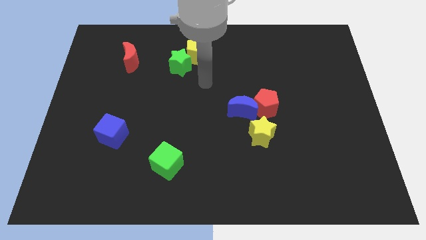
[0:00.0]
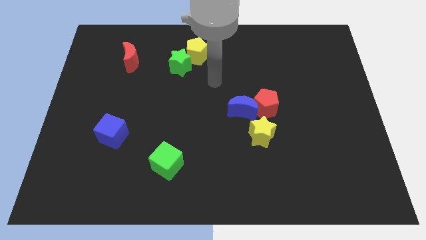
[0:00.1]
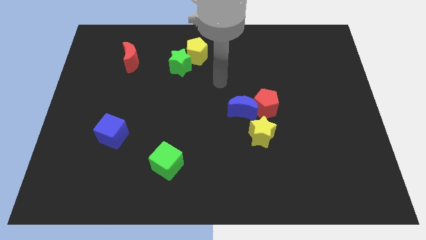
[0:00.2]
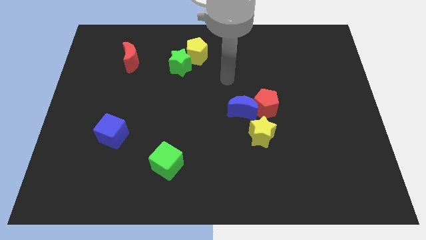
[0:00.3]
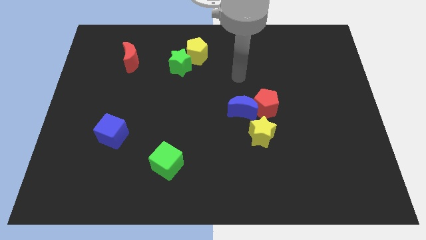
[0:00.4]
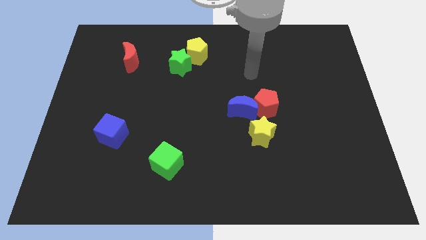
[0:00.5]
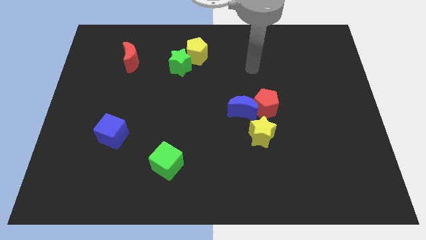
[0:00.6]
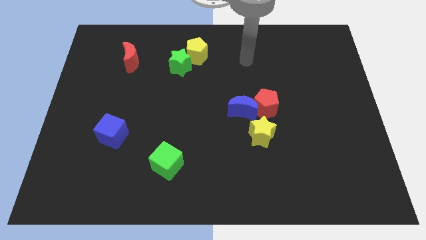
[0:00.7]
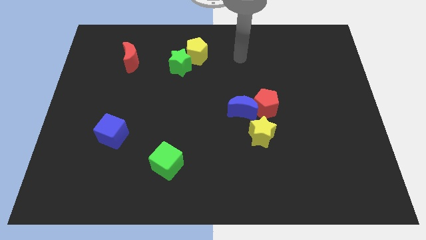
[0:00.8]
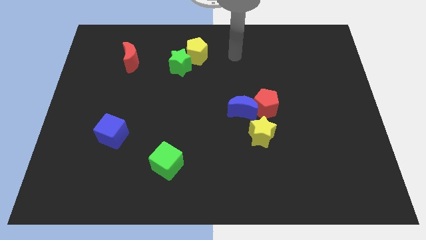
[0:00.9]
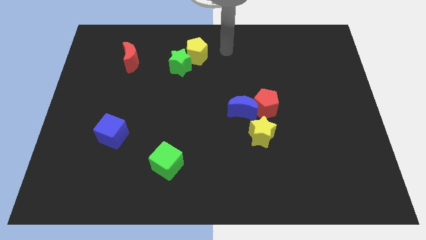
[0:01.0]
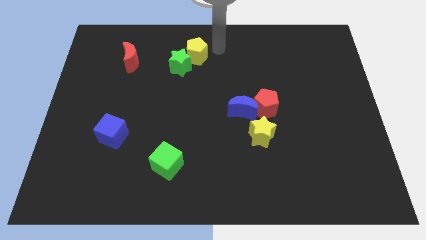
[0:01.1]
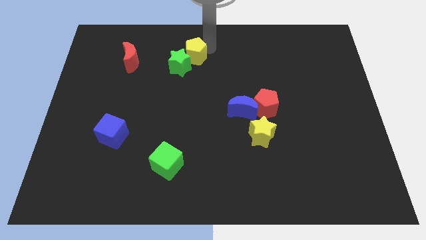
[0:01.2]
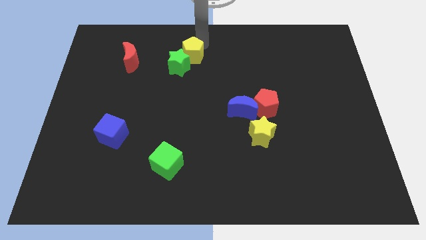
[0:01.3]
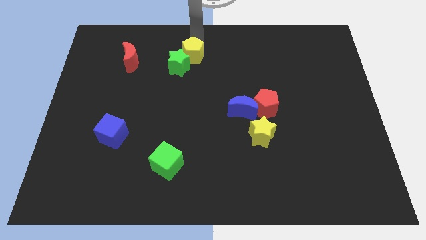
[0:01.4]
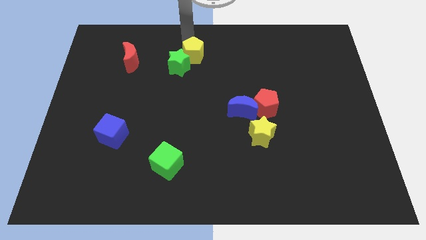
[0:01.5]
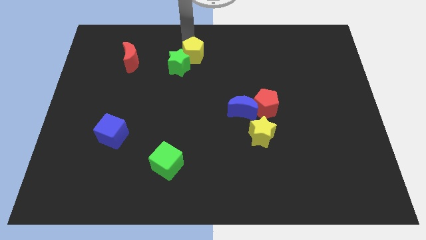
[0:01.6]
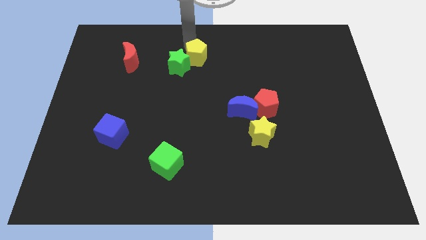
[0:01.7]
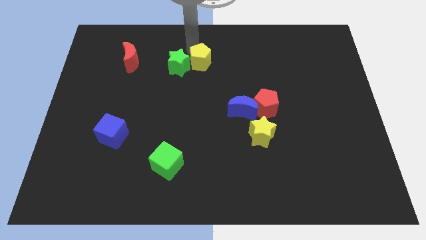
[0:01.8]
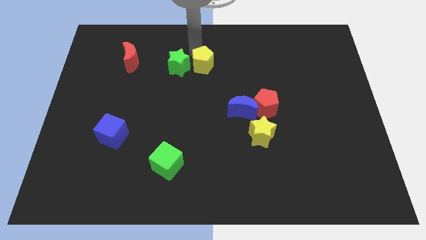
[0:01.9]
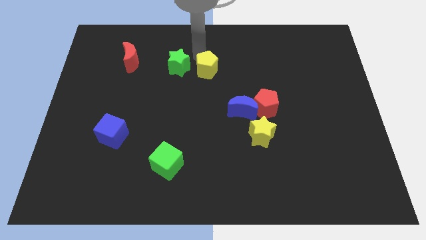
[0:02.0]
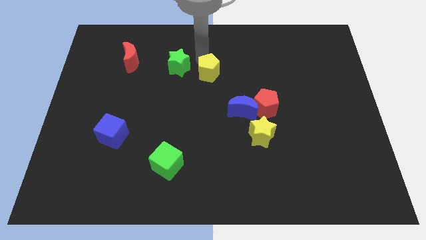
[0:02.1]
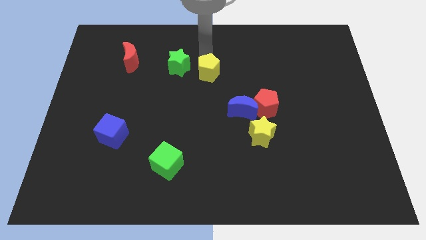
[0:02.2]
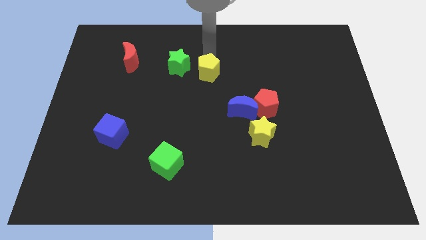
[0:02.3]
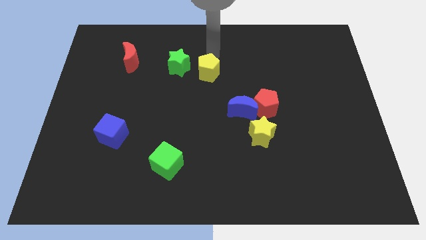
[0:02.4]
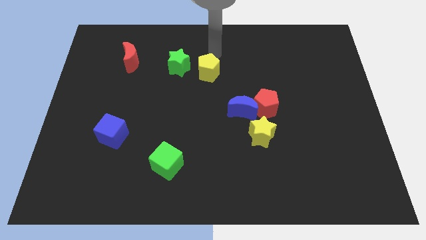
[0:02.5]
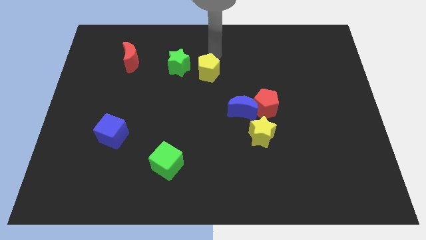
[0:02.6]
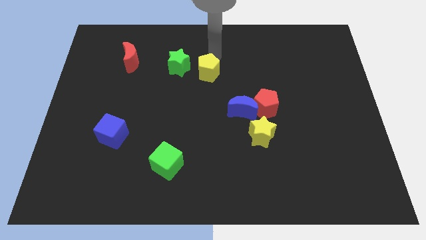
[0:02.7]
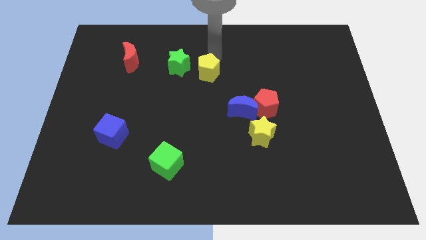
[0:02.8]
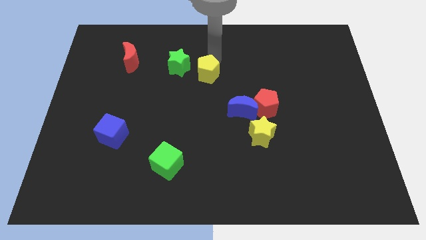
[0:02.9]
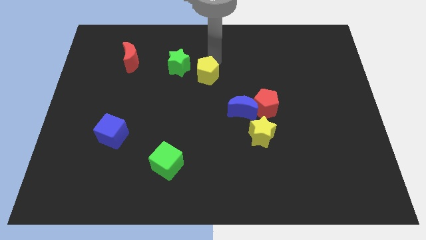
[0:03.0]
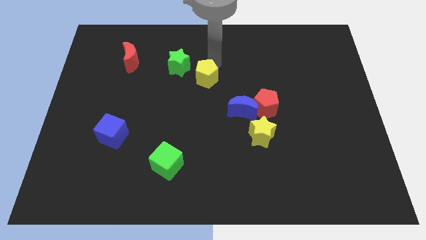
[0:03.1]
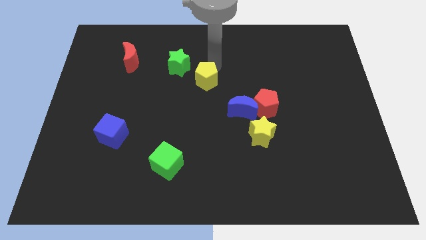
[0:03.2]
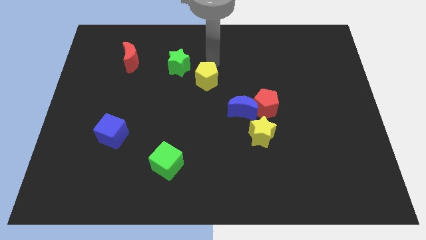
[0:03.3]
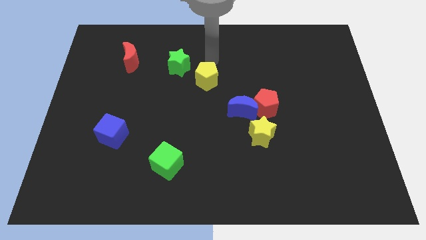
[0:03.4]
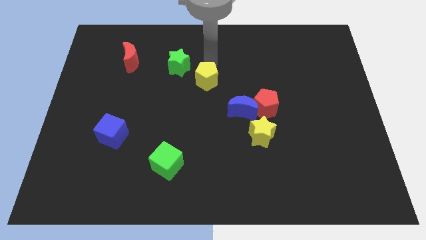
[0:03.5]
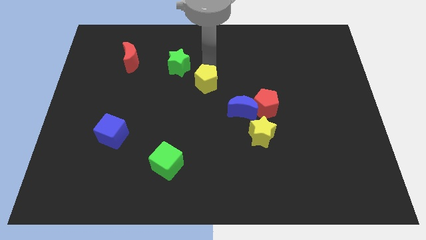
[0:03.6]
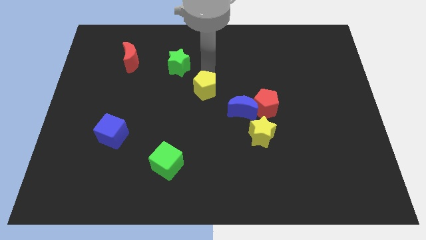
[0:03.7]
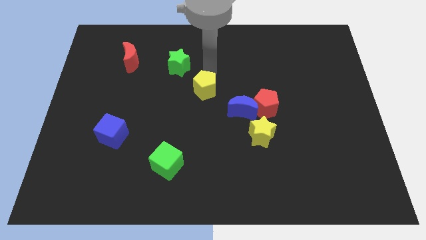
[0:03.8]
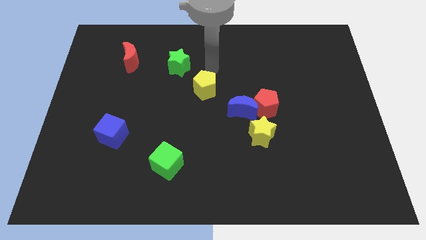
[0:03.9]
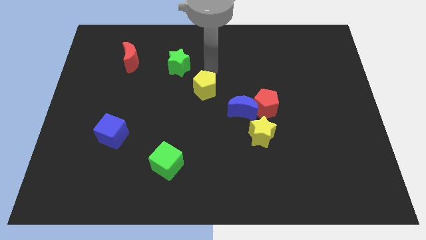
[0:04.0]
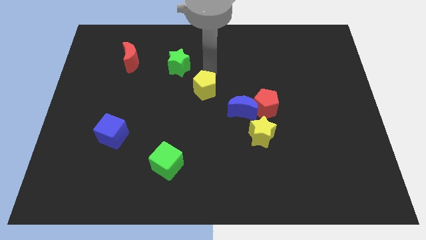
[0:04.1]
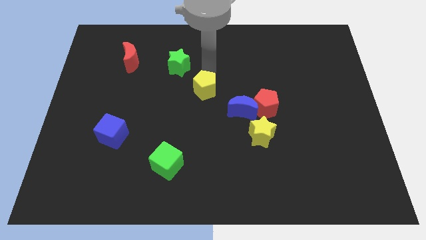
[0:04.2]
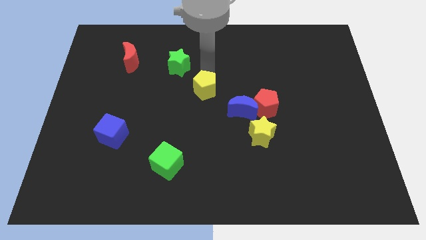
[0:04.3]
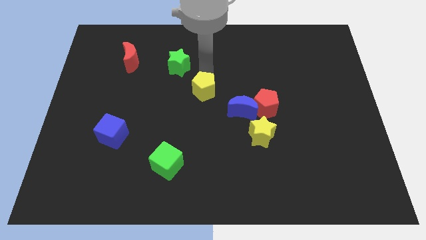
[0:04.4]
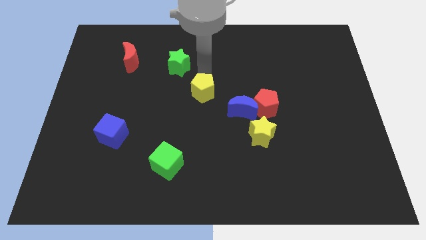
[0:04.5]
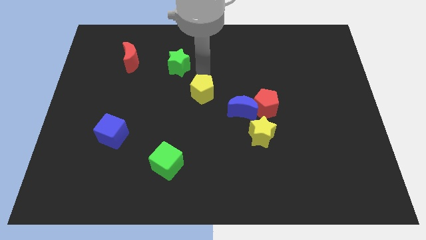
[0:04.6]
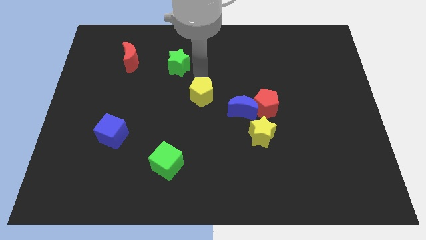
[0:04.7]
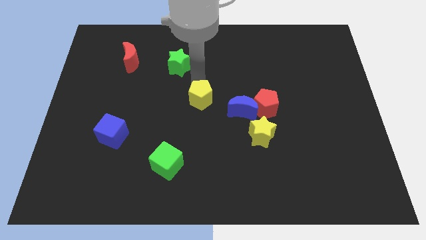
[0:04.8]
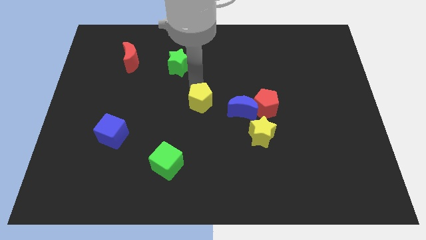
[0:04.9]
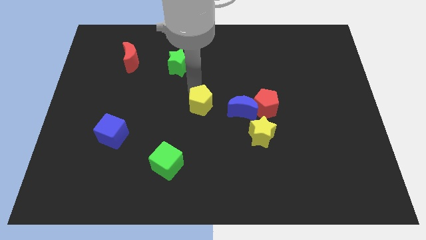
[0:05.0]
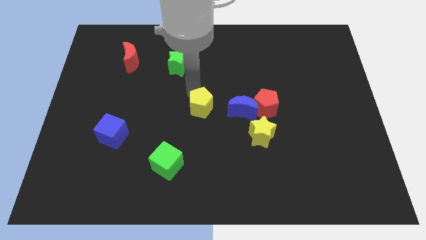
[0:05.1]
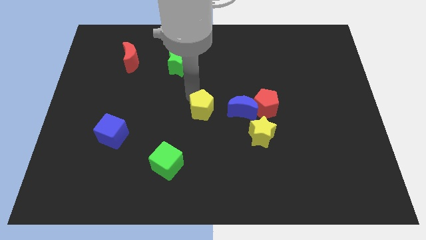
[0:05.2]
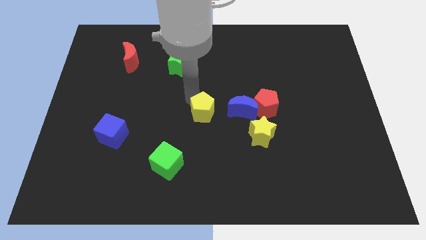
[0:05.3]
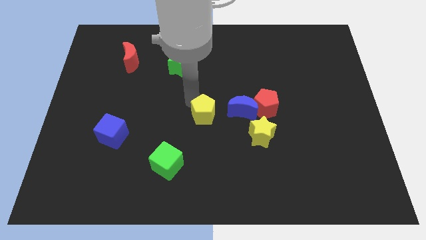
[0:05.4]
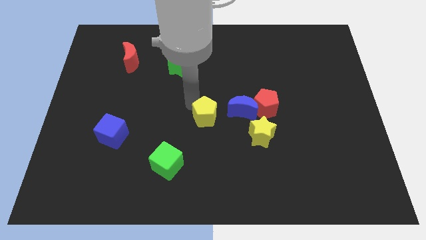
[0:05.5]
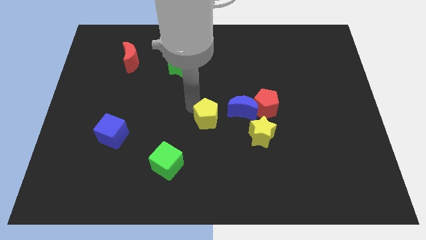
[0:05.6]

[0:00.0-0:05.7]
put the yellow pentagon left of the yellow star

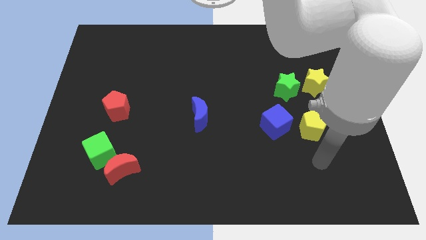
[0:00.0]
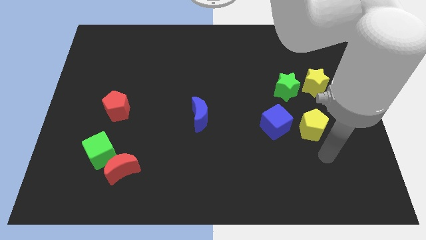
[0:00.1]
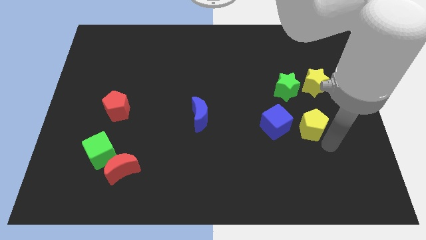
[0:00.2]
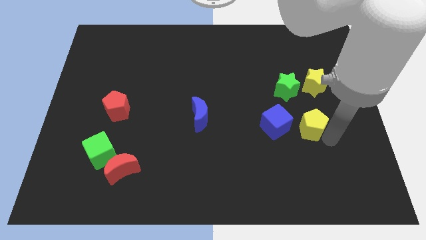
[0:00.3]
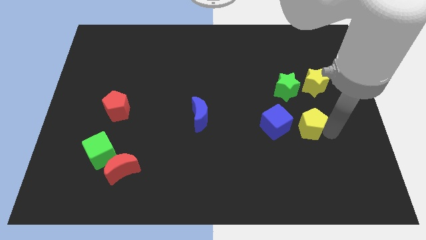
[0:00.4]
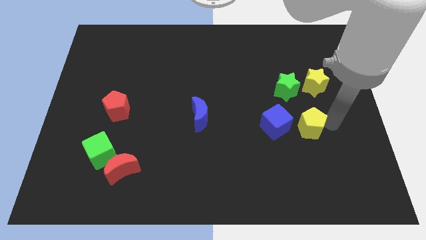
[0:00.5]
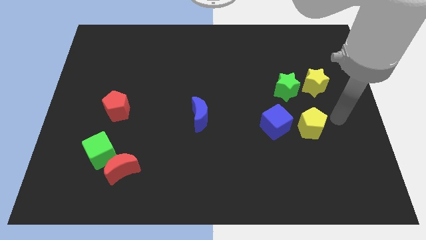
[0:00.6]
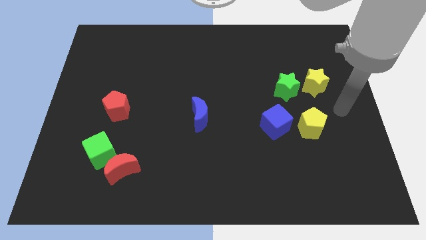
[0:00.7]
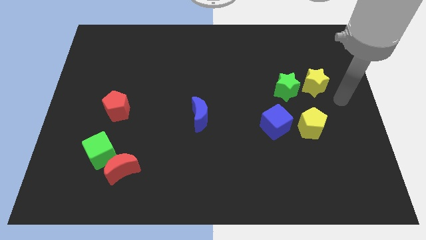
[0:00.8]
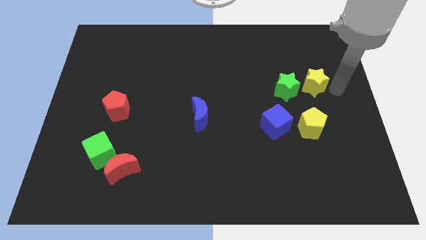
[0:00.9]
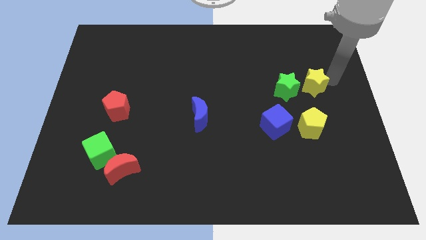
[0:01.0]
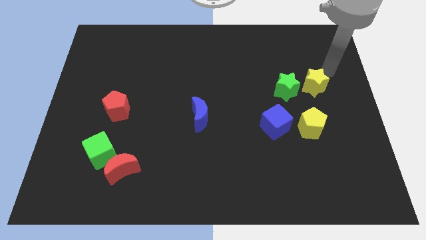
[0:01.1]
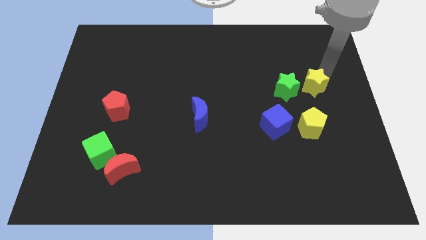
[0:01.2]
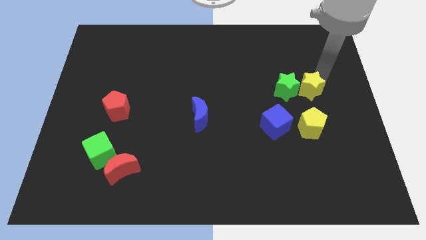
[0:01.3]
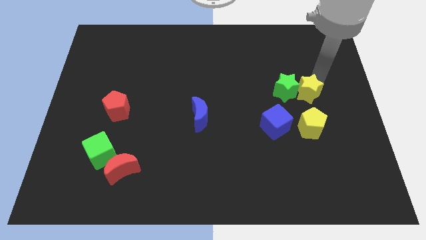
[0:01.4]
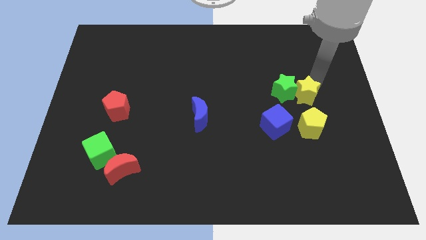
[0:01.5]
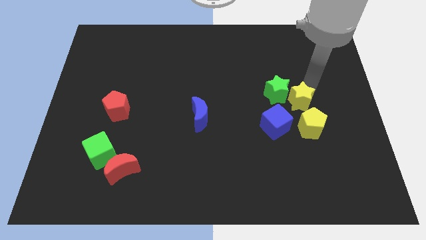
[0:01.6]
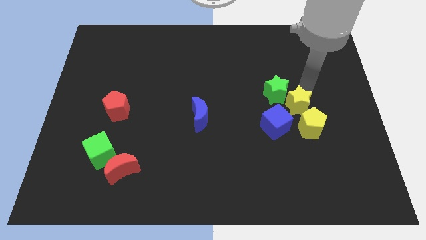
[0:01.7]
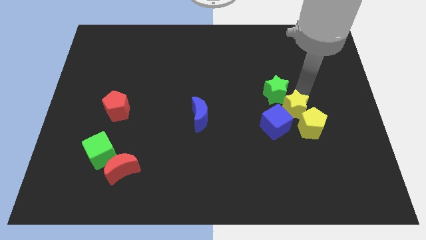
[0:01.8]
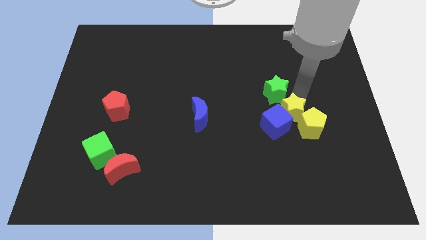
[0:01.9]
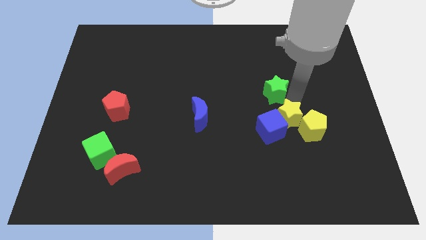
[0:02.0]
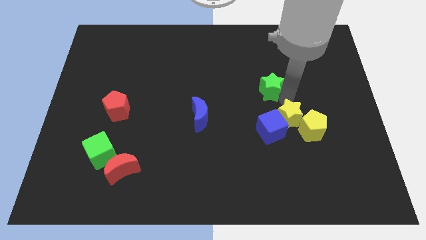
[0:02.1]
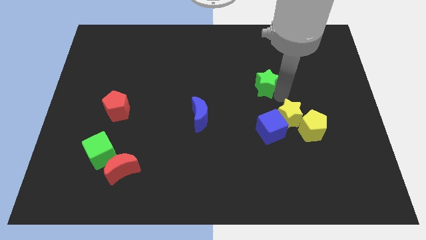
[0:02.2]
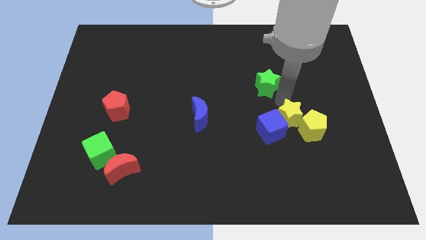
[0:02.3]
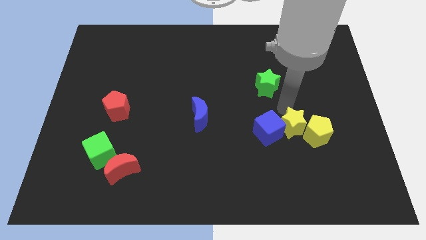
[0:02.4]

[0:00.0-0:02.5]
push the yellow star to the bottom right of the blue cube
